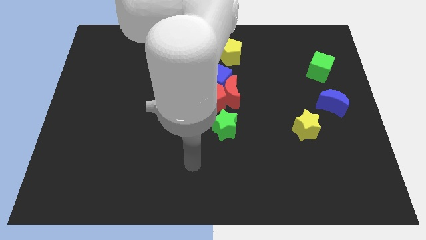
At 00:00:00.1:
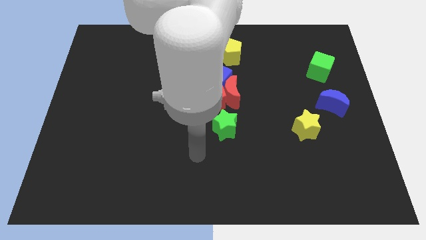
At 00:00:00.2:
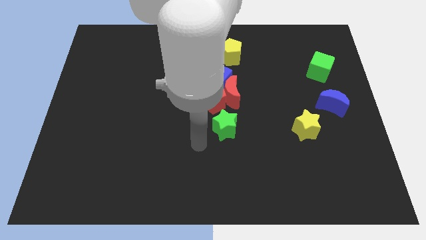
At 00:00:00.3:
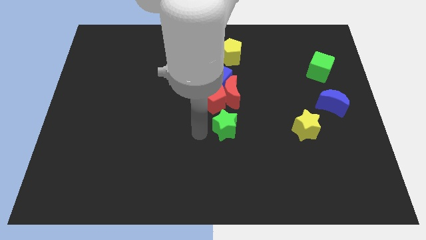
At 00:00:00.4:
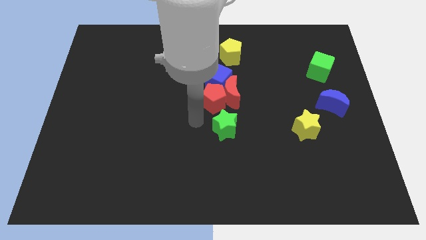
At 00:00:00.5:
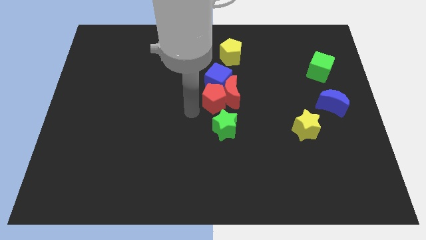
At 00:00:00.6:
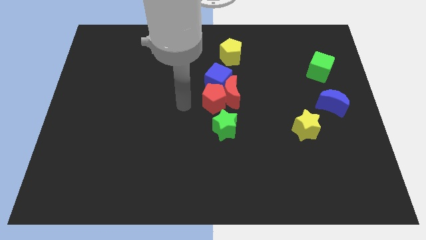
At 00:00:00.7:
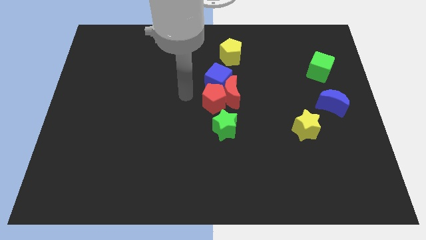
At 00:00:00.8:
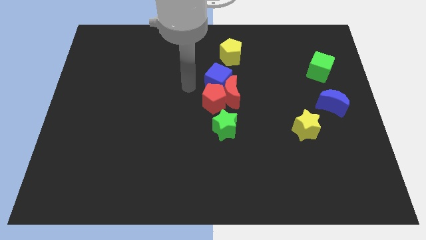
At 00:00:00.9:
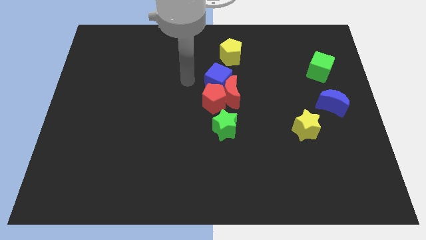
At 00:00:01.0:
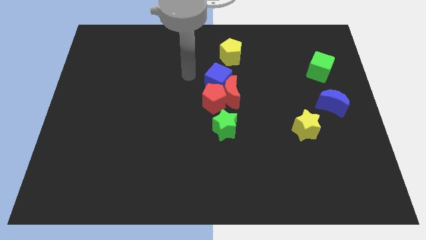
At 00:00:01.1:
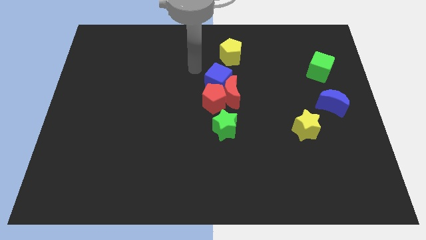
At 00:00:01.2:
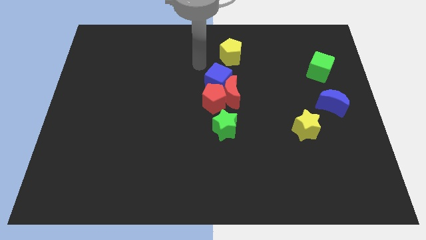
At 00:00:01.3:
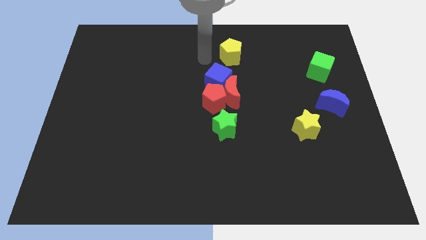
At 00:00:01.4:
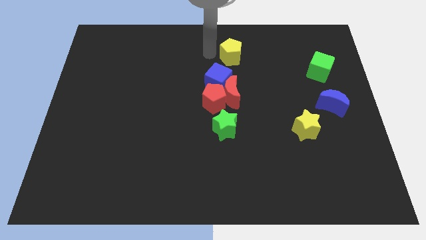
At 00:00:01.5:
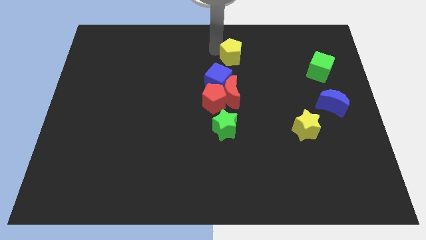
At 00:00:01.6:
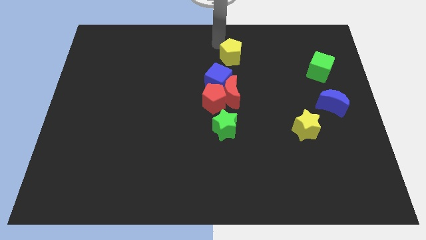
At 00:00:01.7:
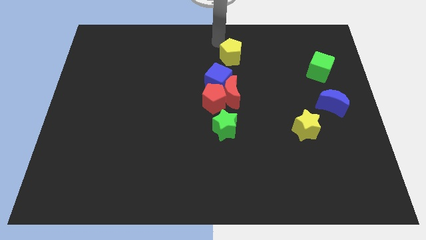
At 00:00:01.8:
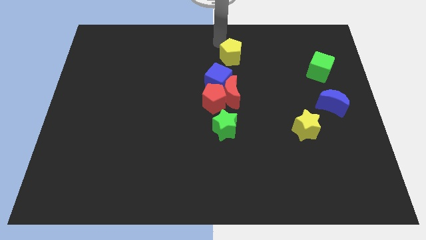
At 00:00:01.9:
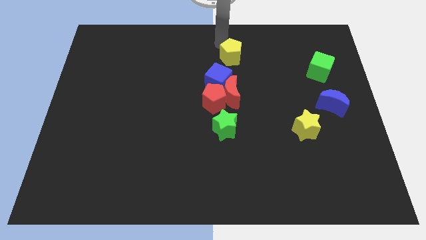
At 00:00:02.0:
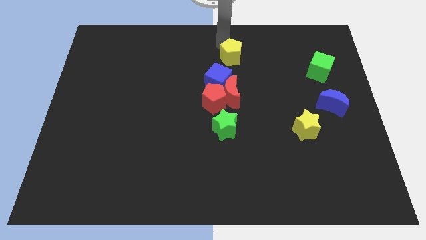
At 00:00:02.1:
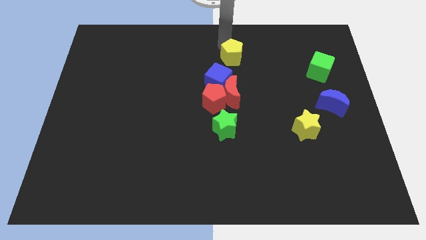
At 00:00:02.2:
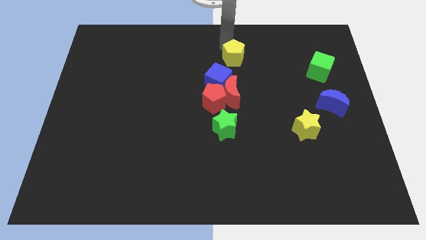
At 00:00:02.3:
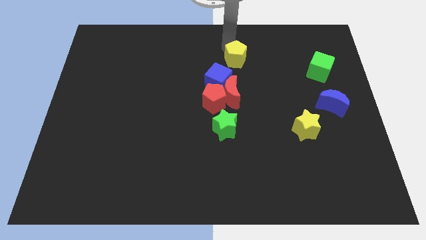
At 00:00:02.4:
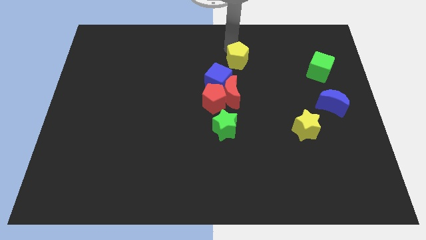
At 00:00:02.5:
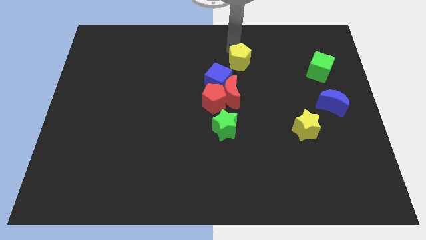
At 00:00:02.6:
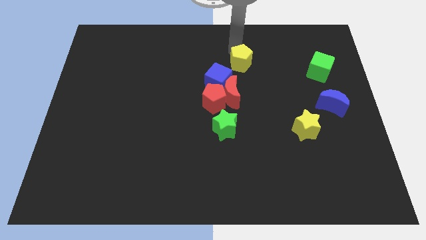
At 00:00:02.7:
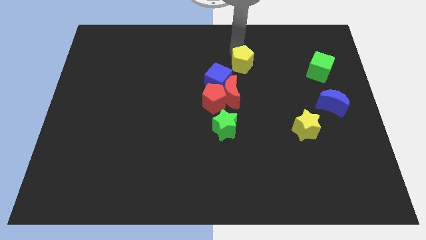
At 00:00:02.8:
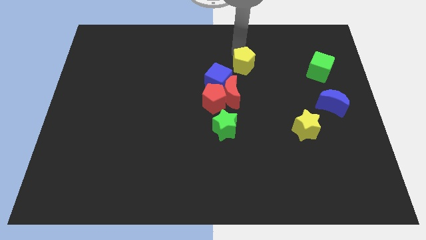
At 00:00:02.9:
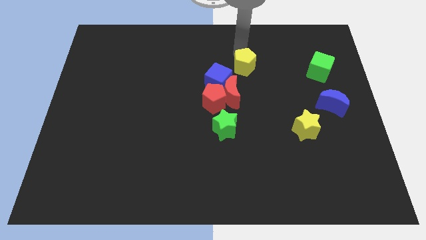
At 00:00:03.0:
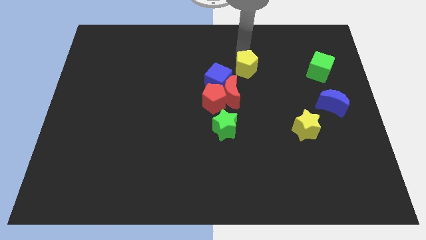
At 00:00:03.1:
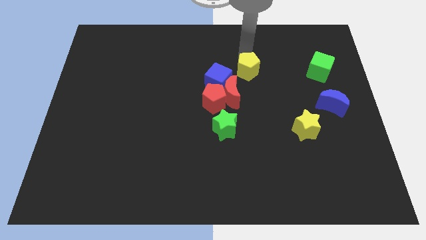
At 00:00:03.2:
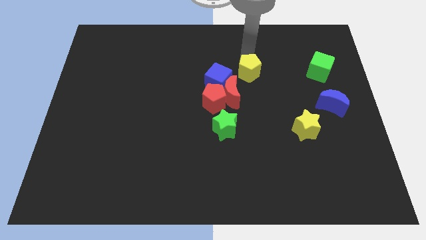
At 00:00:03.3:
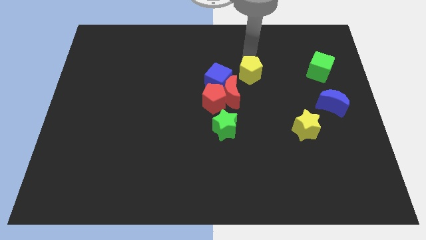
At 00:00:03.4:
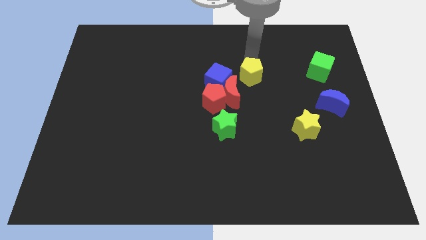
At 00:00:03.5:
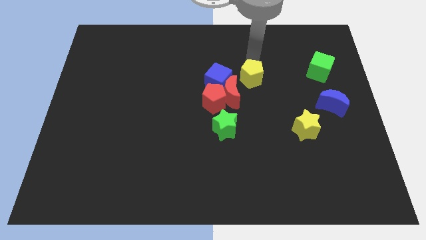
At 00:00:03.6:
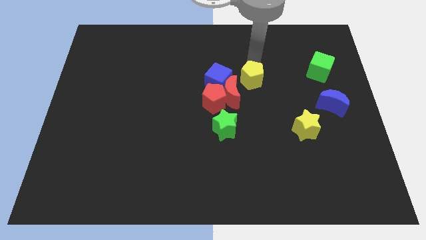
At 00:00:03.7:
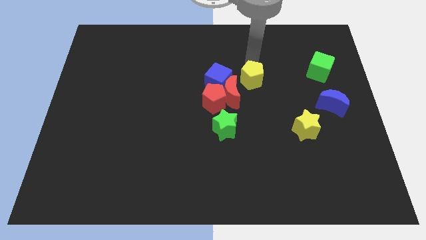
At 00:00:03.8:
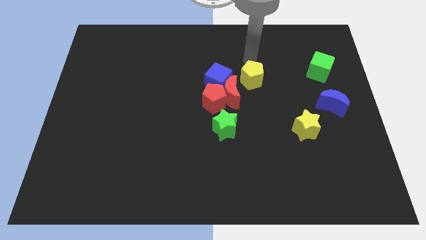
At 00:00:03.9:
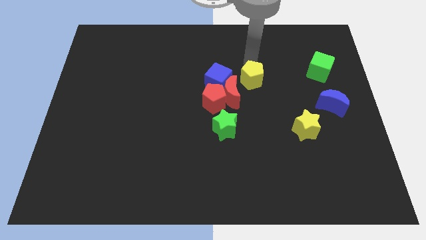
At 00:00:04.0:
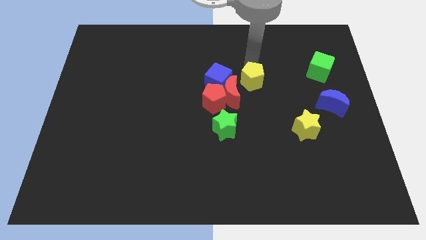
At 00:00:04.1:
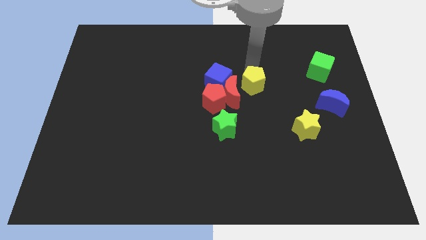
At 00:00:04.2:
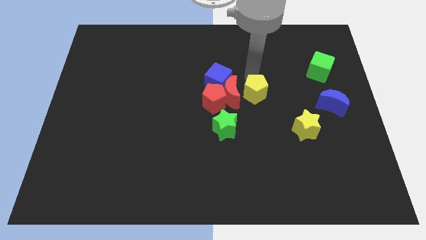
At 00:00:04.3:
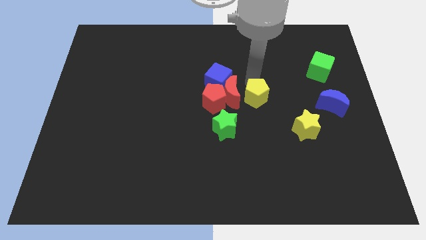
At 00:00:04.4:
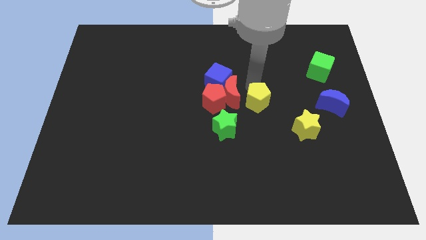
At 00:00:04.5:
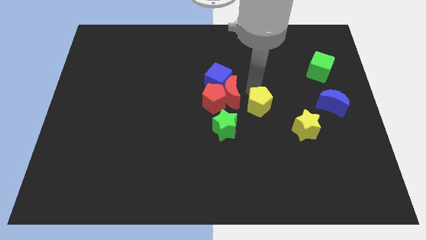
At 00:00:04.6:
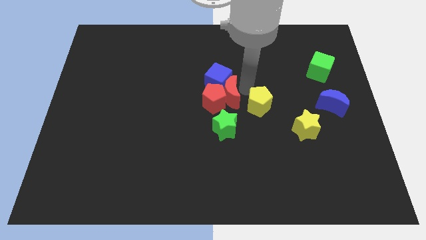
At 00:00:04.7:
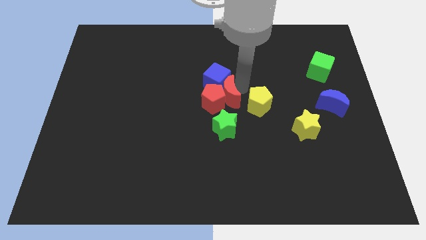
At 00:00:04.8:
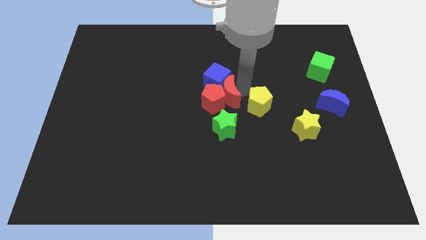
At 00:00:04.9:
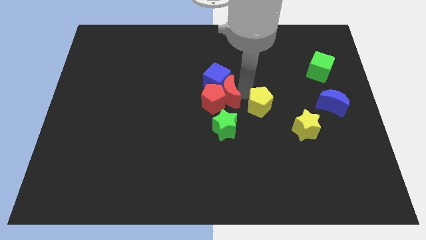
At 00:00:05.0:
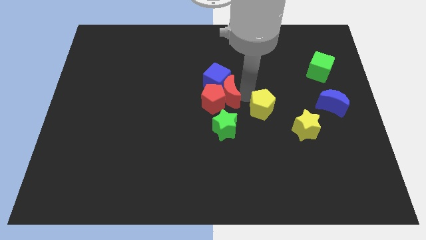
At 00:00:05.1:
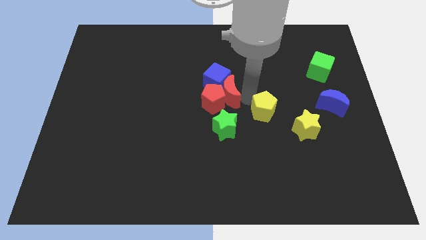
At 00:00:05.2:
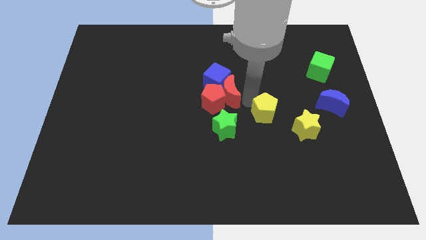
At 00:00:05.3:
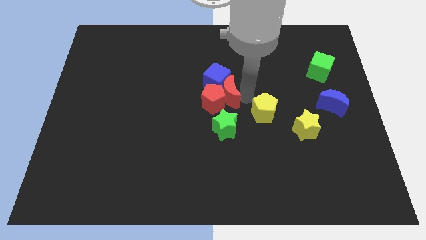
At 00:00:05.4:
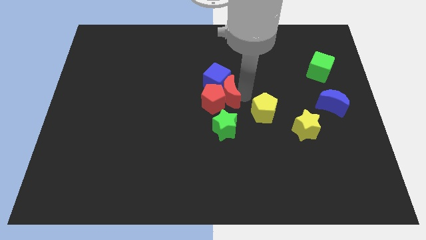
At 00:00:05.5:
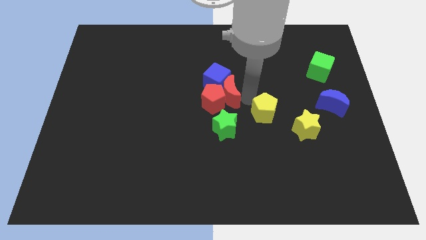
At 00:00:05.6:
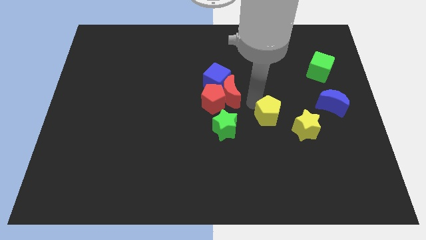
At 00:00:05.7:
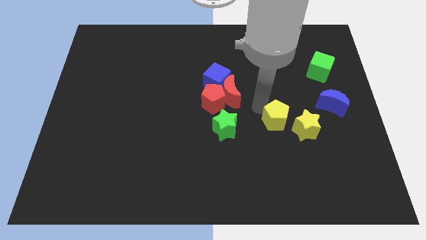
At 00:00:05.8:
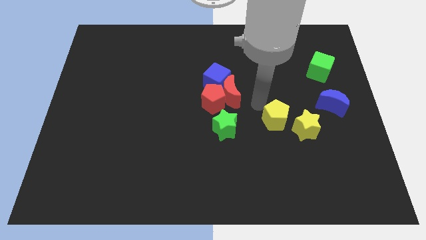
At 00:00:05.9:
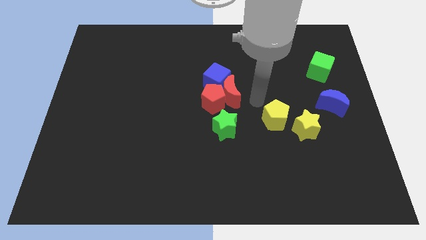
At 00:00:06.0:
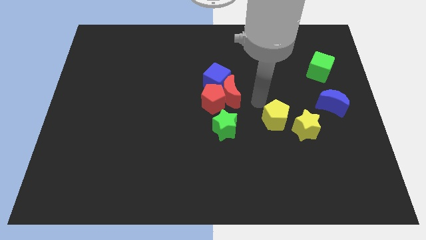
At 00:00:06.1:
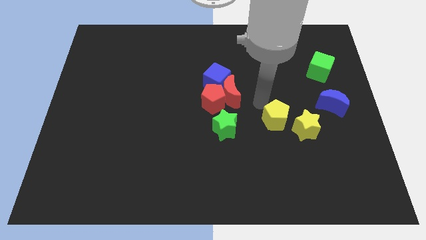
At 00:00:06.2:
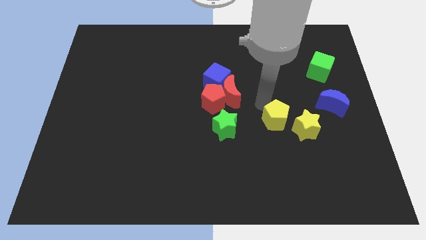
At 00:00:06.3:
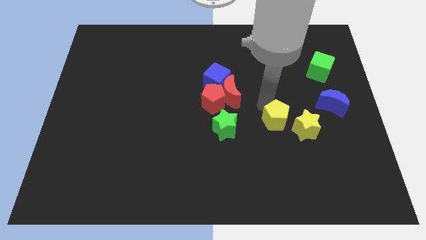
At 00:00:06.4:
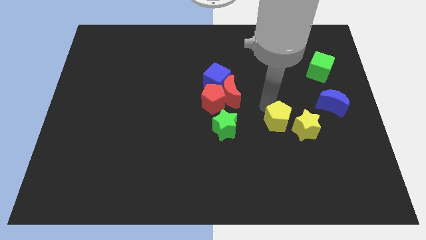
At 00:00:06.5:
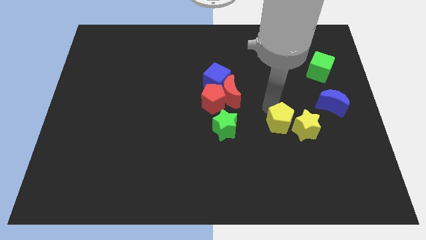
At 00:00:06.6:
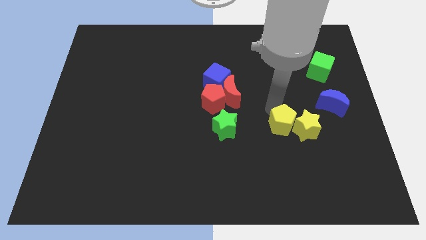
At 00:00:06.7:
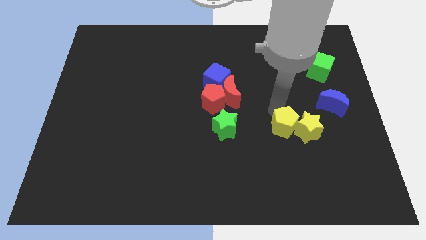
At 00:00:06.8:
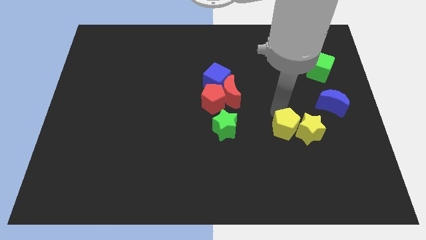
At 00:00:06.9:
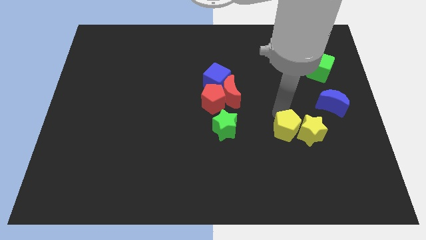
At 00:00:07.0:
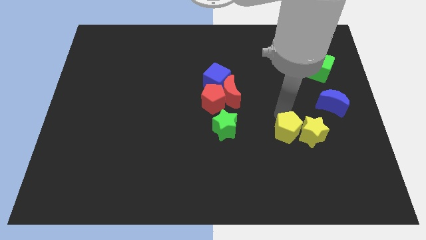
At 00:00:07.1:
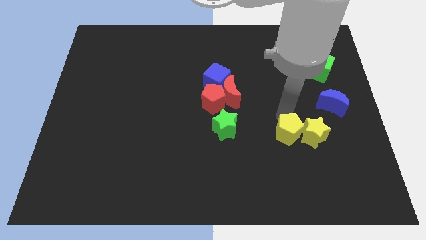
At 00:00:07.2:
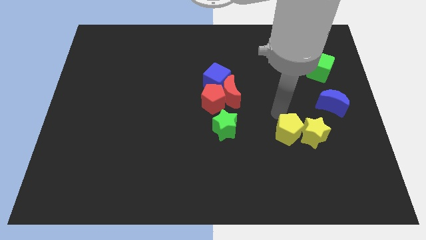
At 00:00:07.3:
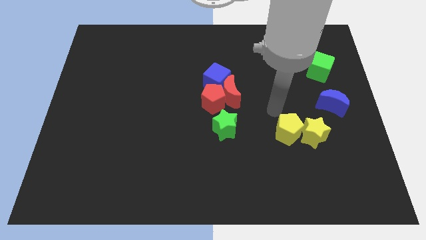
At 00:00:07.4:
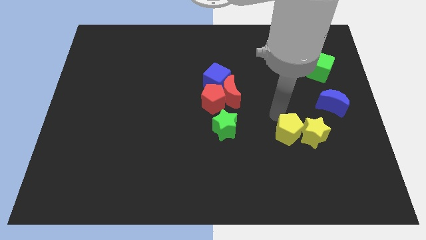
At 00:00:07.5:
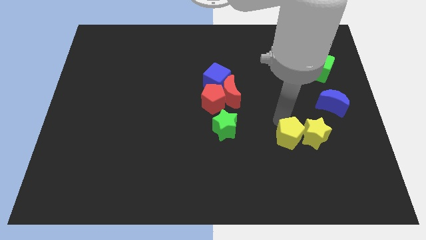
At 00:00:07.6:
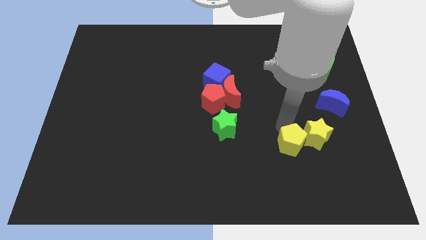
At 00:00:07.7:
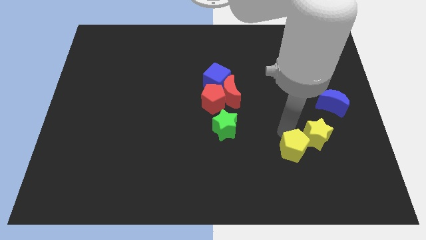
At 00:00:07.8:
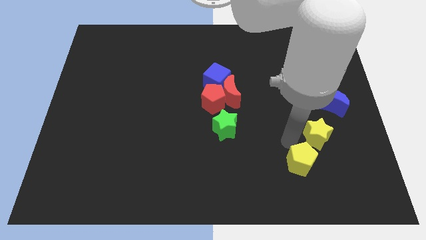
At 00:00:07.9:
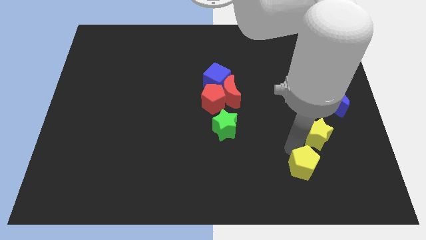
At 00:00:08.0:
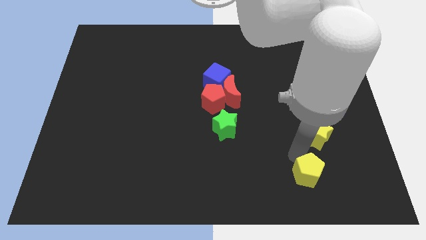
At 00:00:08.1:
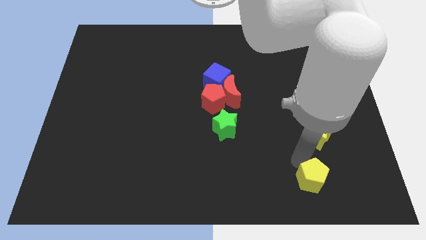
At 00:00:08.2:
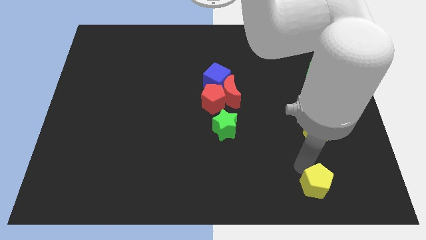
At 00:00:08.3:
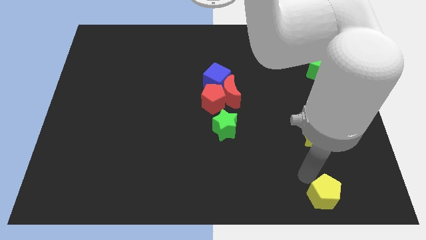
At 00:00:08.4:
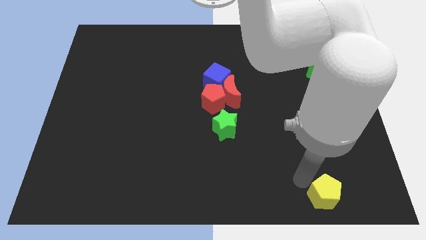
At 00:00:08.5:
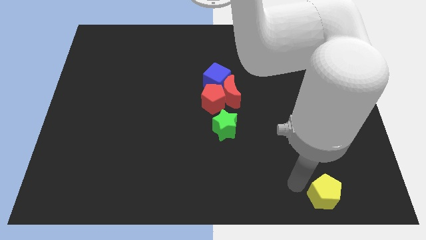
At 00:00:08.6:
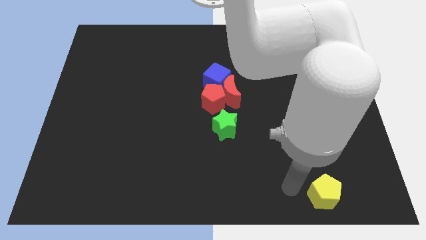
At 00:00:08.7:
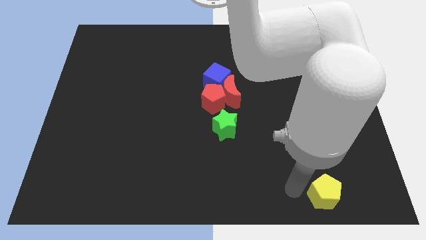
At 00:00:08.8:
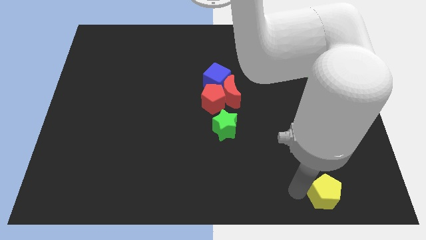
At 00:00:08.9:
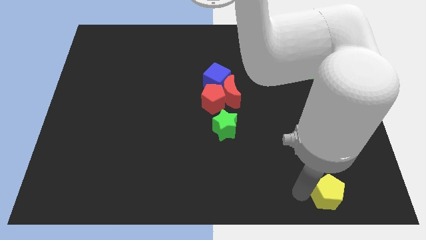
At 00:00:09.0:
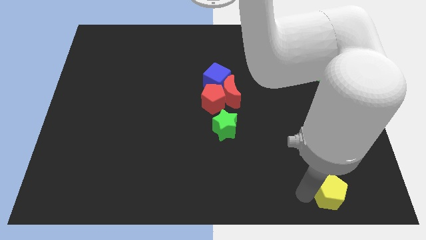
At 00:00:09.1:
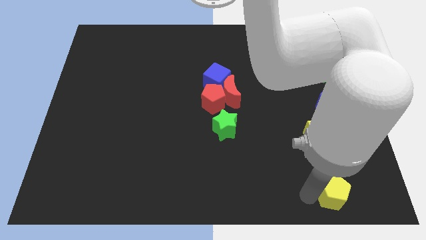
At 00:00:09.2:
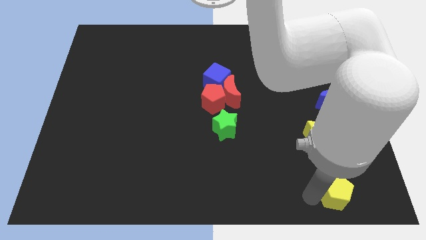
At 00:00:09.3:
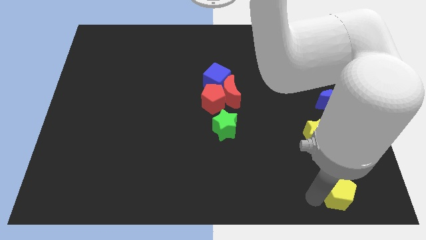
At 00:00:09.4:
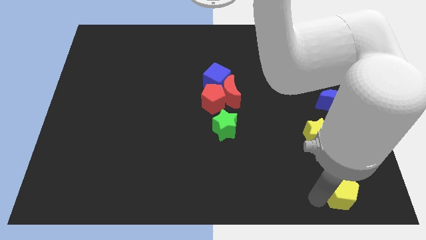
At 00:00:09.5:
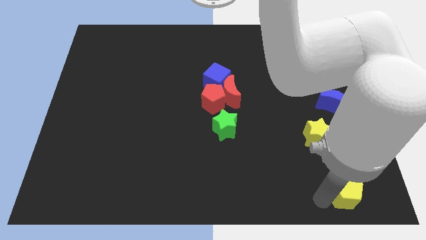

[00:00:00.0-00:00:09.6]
put the yellow pentagon to the lower right corner
